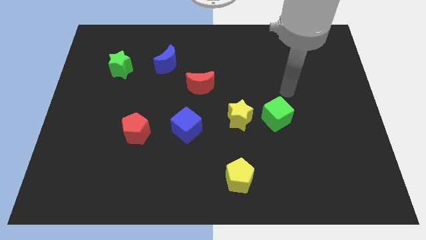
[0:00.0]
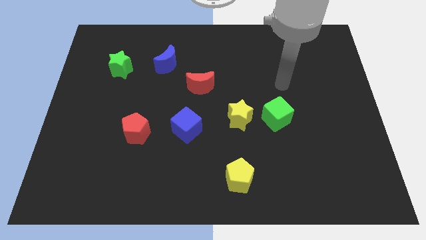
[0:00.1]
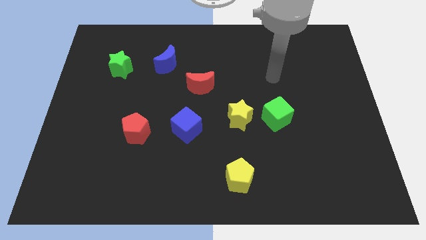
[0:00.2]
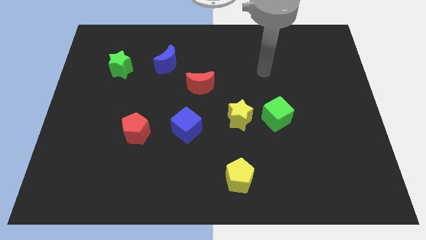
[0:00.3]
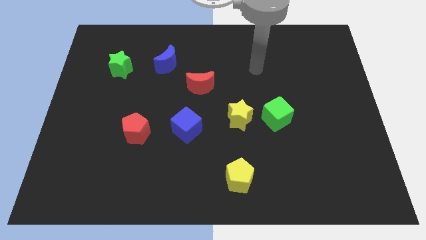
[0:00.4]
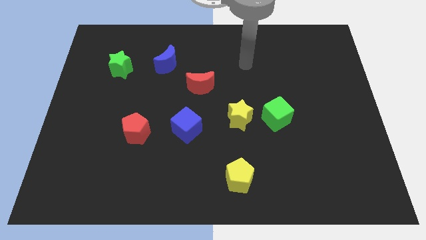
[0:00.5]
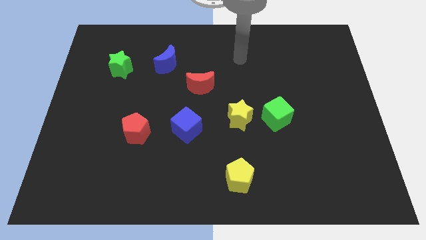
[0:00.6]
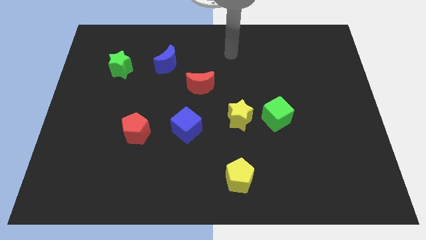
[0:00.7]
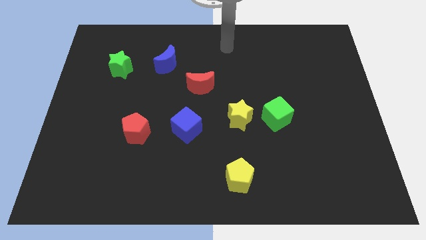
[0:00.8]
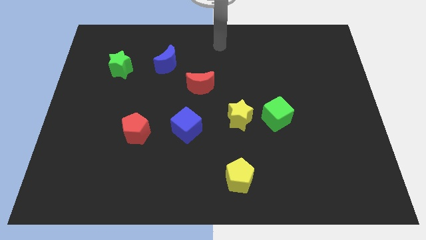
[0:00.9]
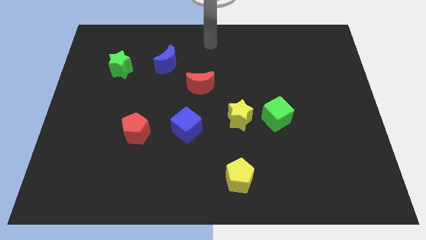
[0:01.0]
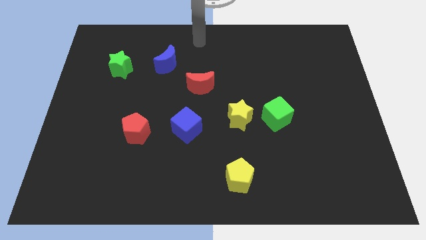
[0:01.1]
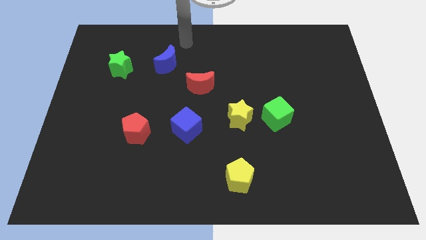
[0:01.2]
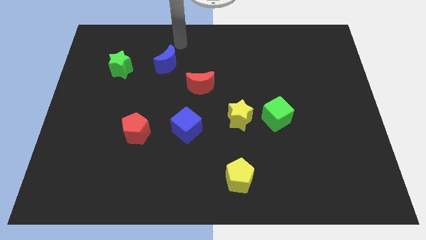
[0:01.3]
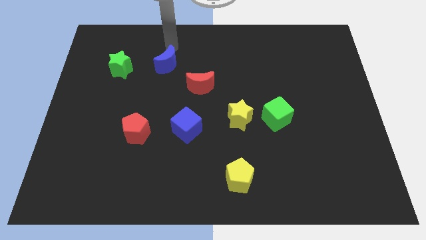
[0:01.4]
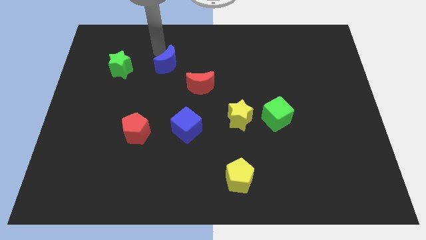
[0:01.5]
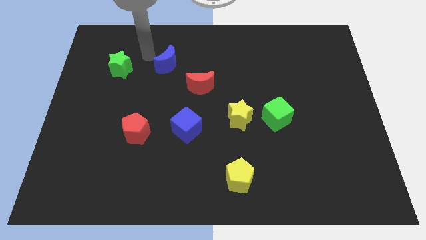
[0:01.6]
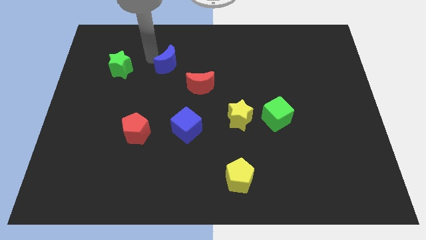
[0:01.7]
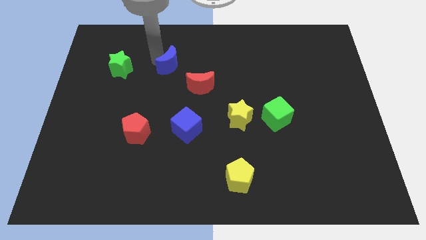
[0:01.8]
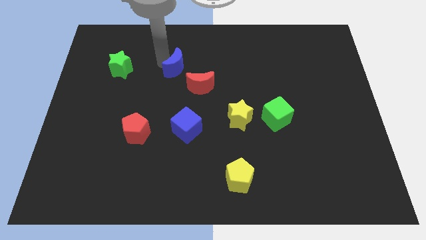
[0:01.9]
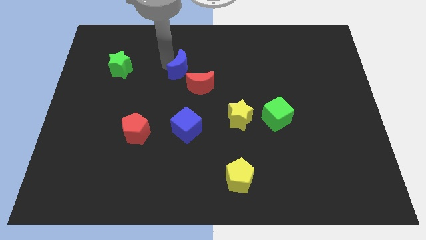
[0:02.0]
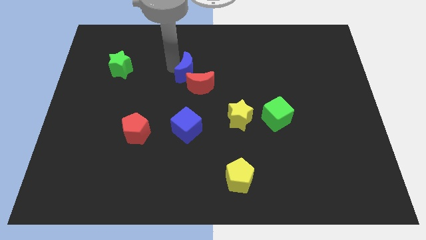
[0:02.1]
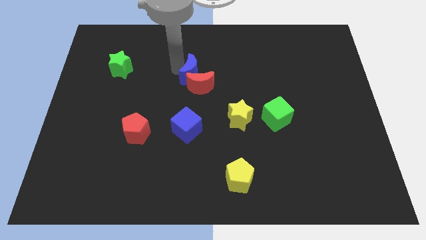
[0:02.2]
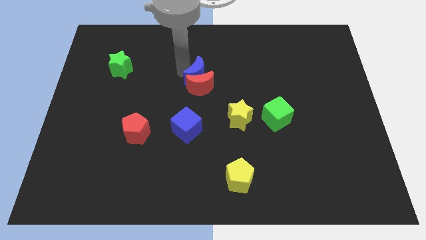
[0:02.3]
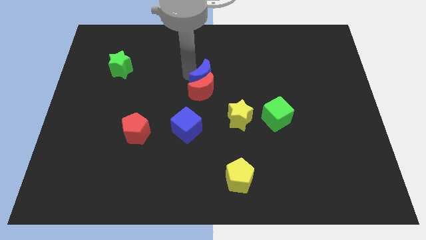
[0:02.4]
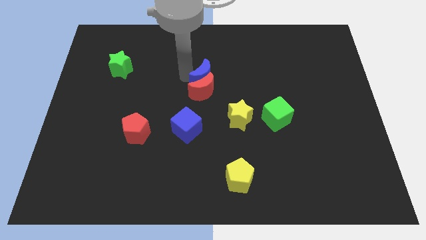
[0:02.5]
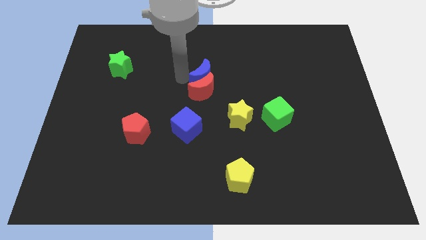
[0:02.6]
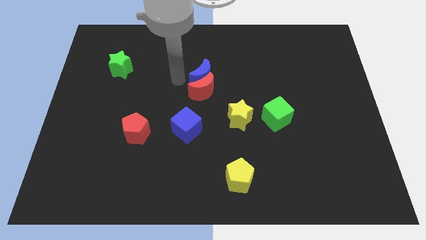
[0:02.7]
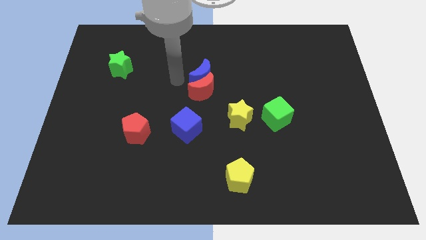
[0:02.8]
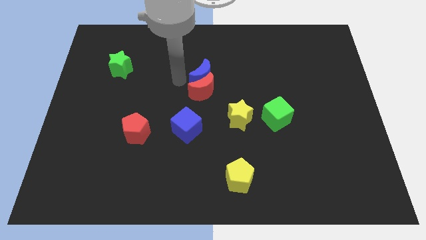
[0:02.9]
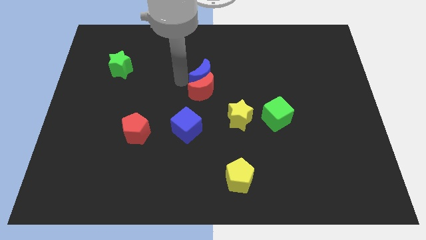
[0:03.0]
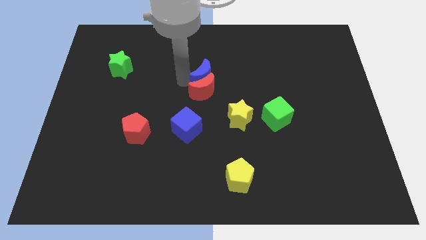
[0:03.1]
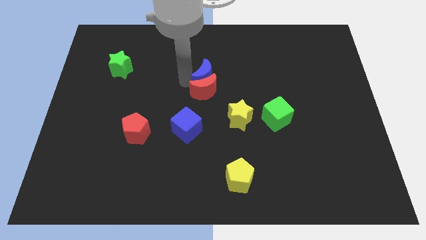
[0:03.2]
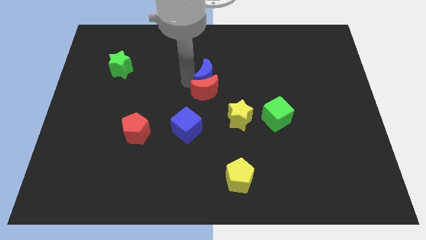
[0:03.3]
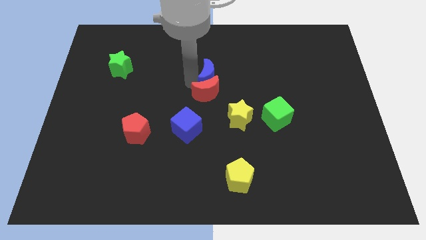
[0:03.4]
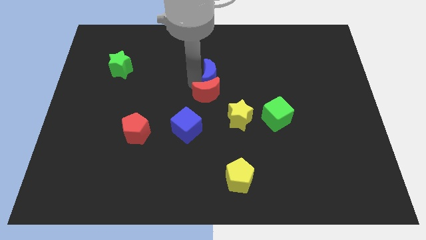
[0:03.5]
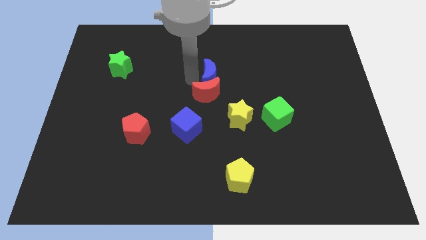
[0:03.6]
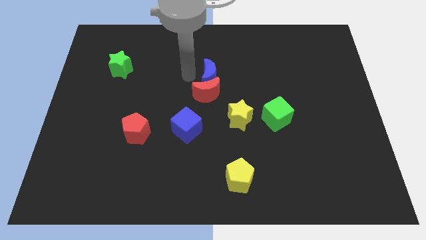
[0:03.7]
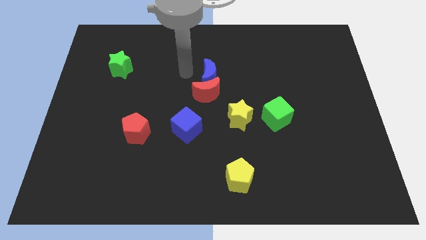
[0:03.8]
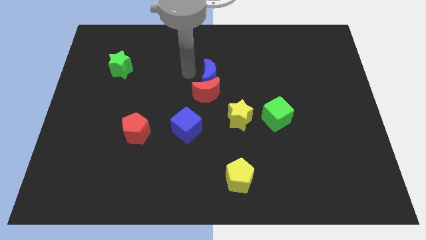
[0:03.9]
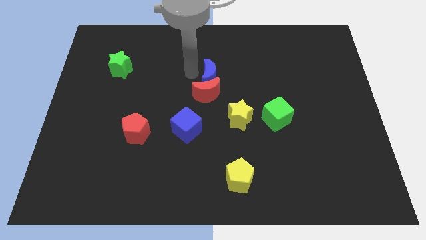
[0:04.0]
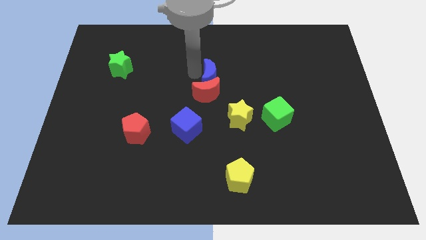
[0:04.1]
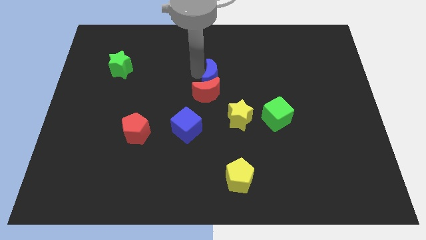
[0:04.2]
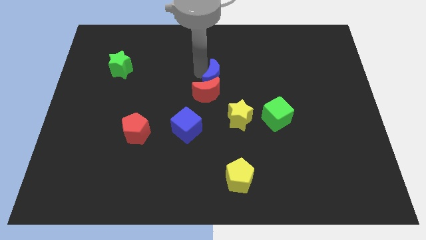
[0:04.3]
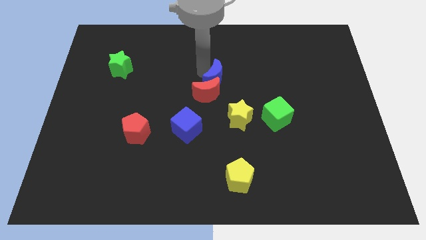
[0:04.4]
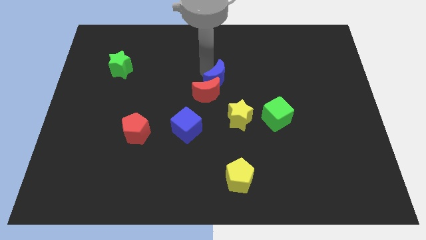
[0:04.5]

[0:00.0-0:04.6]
slide the blue moon above the yellow star

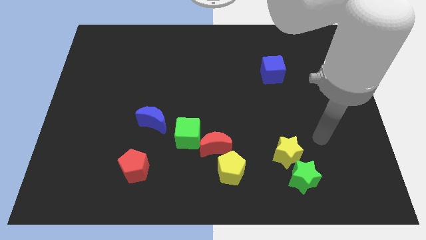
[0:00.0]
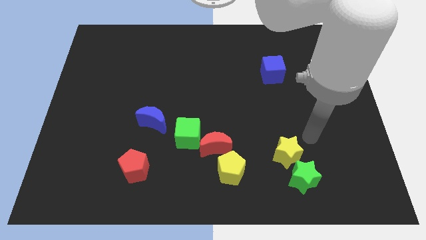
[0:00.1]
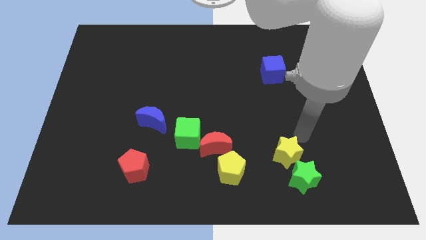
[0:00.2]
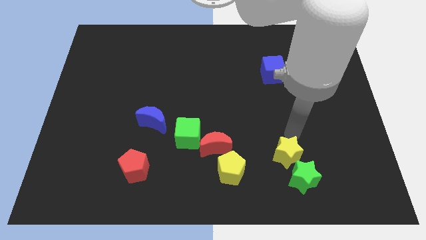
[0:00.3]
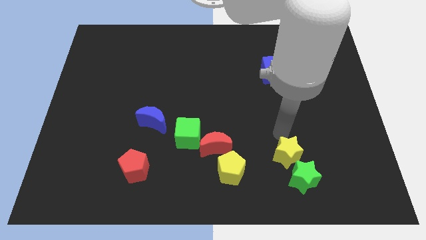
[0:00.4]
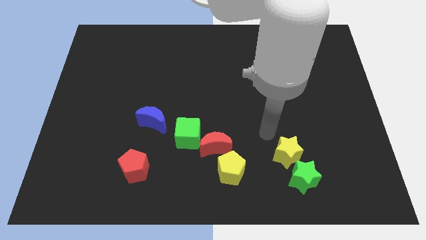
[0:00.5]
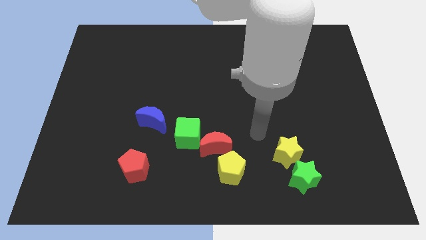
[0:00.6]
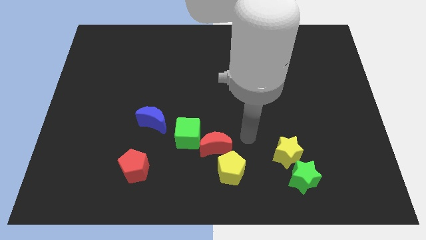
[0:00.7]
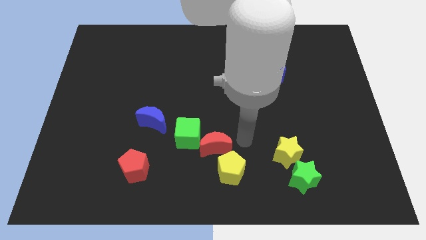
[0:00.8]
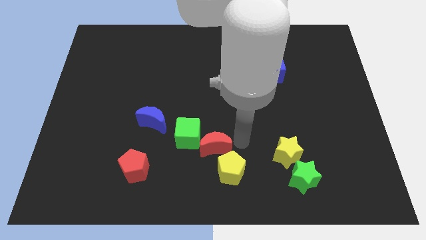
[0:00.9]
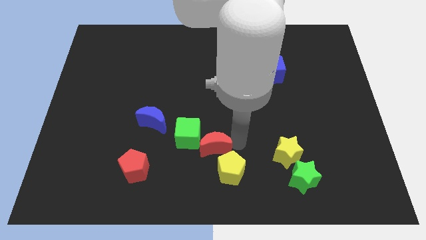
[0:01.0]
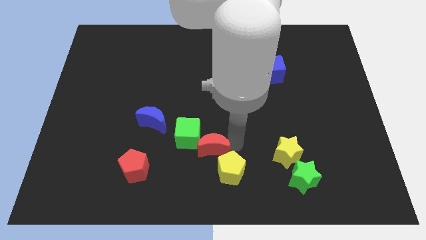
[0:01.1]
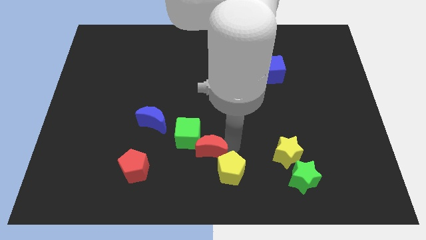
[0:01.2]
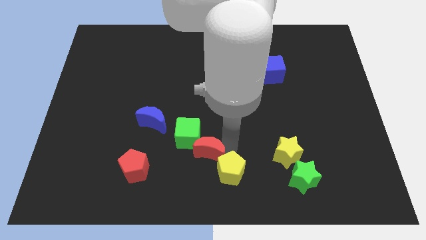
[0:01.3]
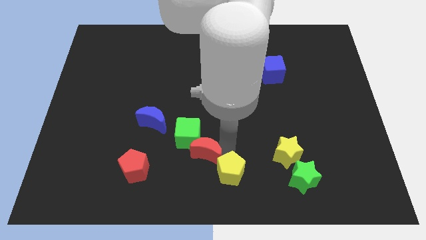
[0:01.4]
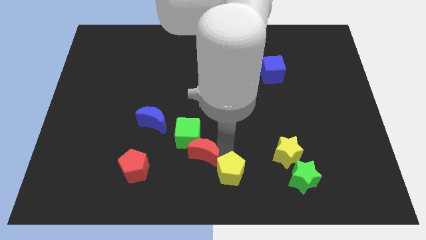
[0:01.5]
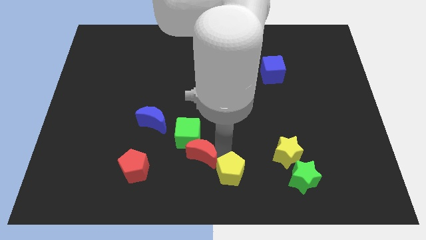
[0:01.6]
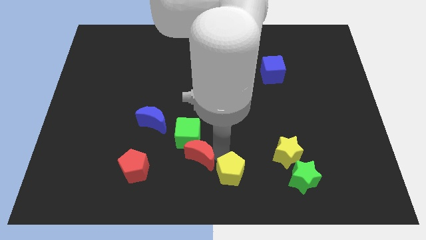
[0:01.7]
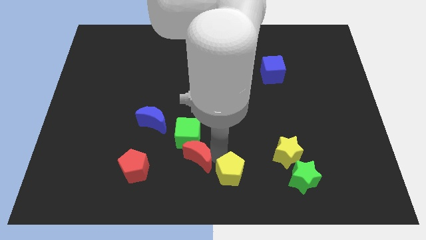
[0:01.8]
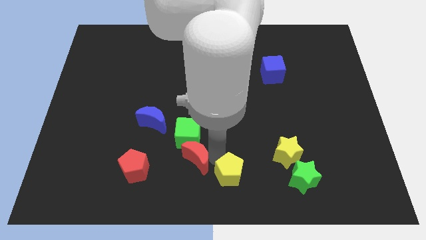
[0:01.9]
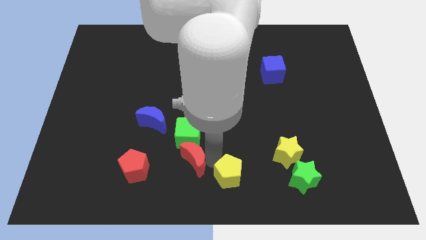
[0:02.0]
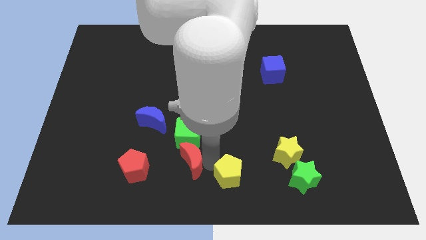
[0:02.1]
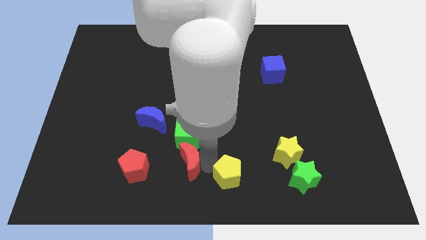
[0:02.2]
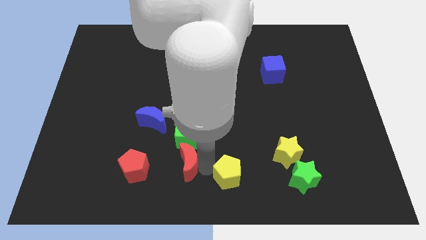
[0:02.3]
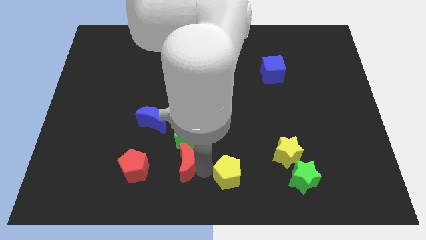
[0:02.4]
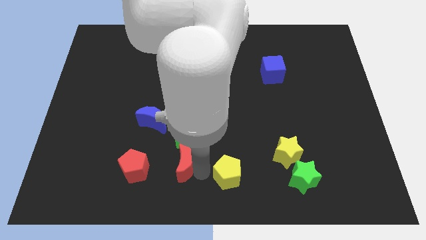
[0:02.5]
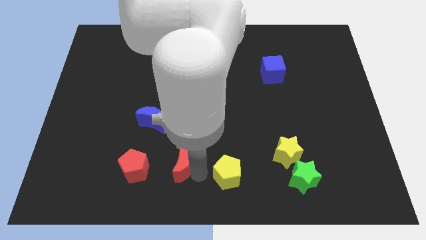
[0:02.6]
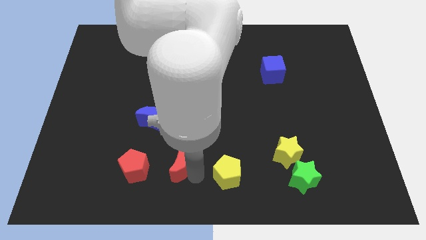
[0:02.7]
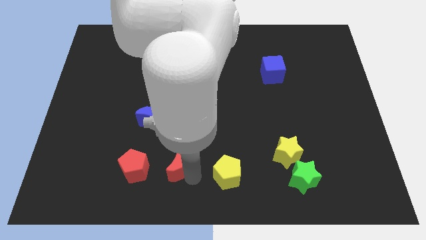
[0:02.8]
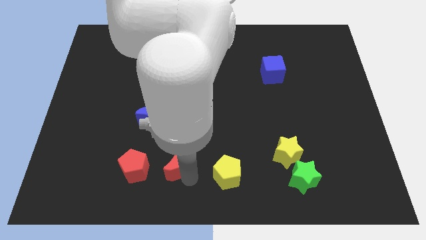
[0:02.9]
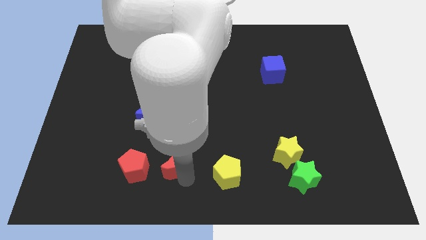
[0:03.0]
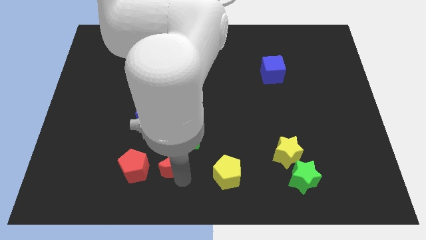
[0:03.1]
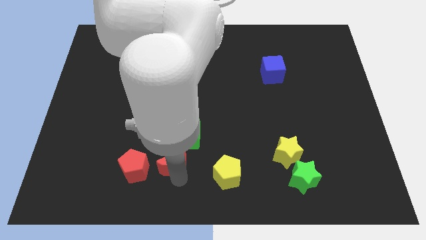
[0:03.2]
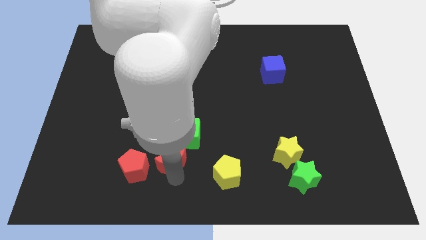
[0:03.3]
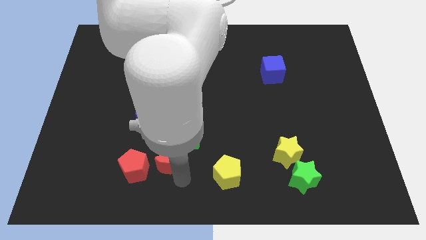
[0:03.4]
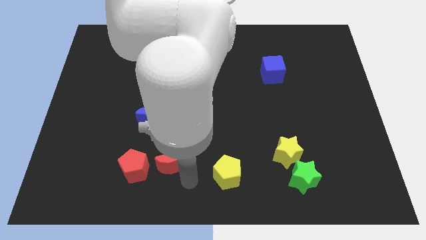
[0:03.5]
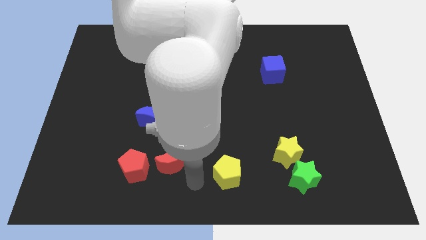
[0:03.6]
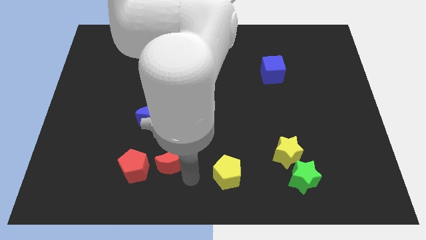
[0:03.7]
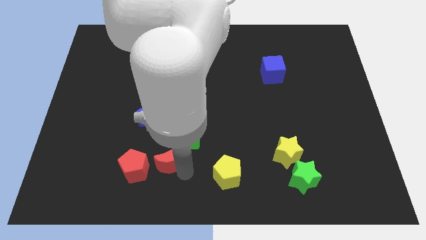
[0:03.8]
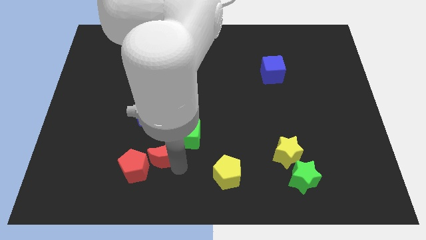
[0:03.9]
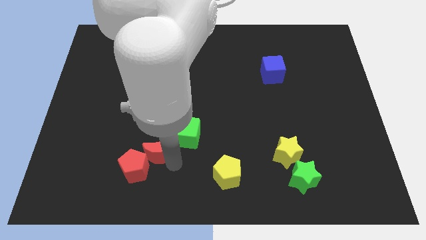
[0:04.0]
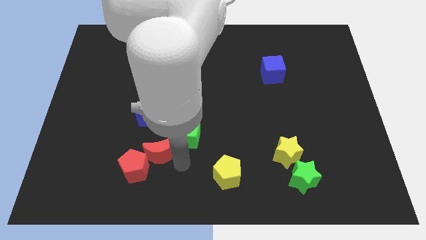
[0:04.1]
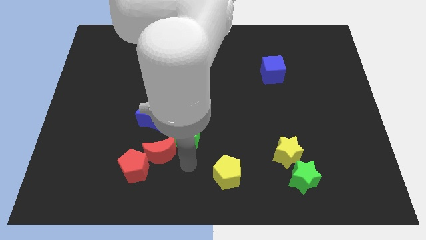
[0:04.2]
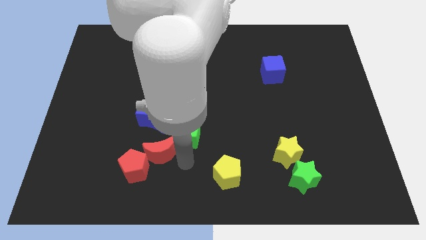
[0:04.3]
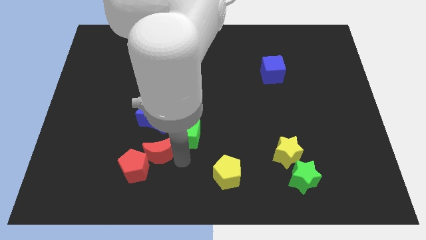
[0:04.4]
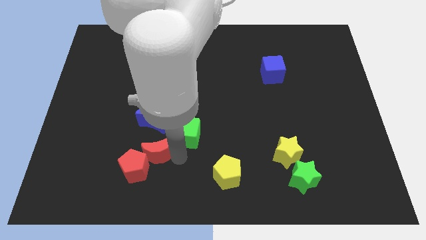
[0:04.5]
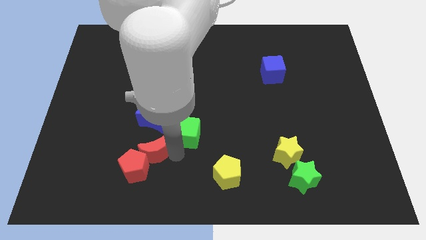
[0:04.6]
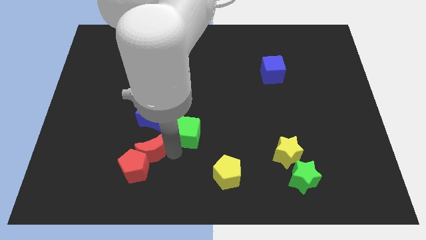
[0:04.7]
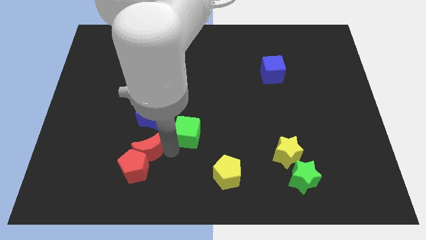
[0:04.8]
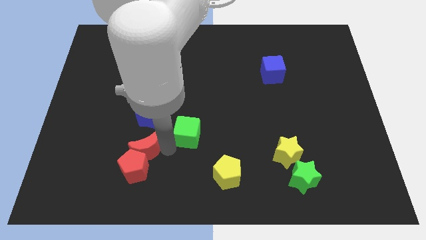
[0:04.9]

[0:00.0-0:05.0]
push the red moon diagonally down and to the left of the blue moon
